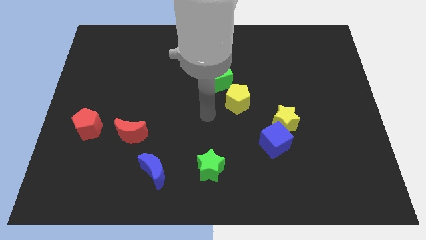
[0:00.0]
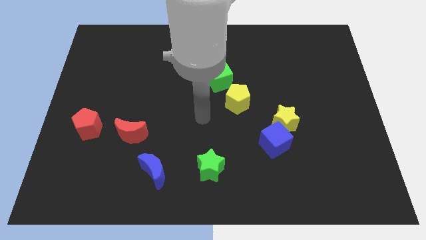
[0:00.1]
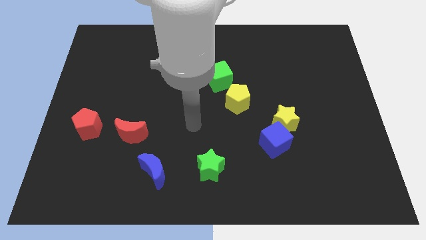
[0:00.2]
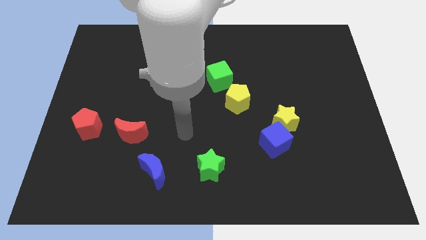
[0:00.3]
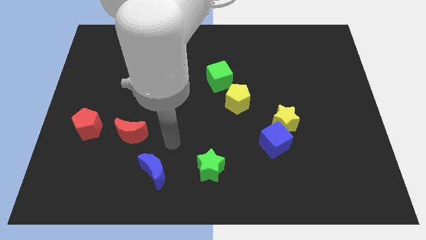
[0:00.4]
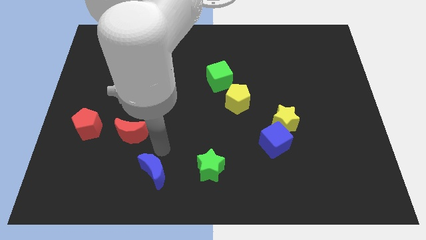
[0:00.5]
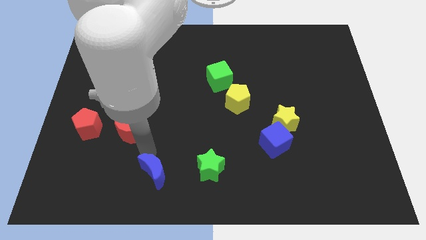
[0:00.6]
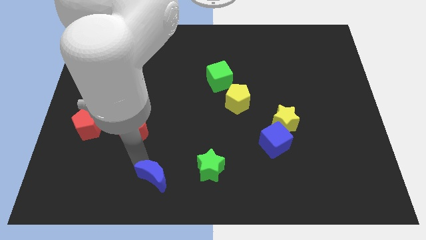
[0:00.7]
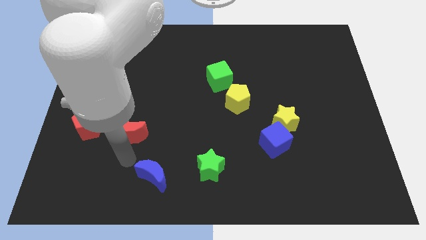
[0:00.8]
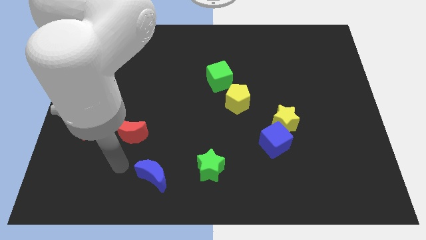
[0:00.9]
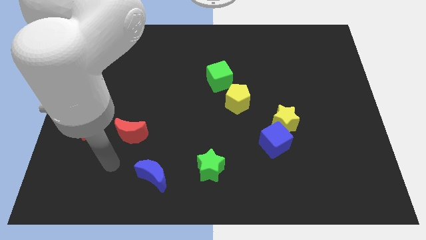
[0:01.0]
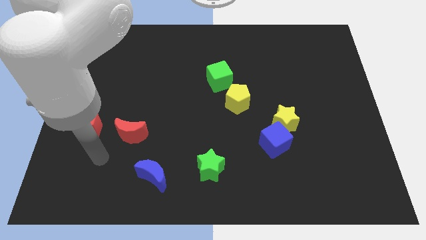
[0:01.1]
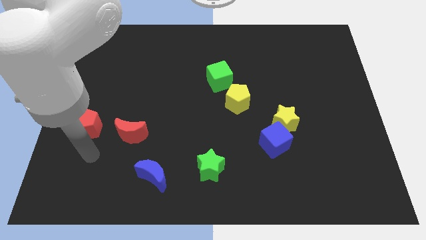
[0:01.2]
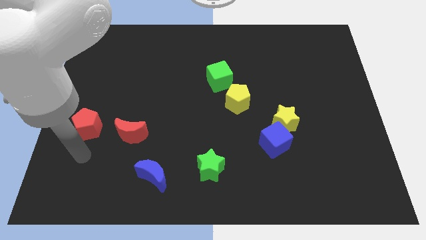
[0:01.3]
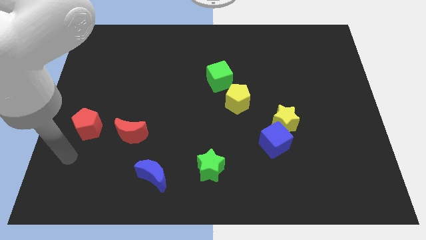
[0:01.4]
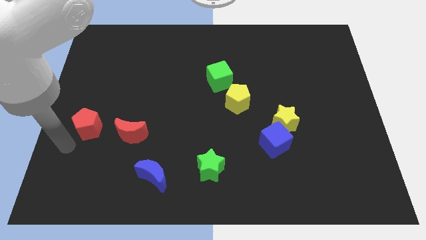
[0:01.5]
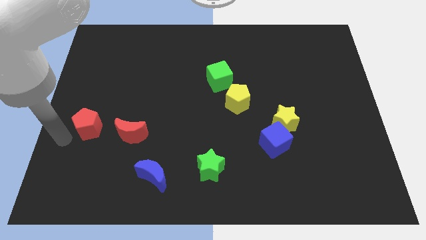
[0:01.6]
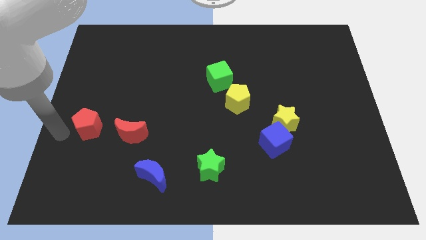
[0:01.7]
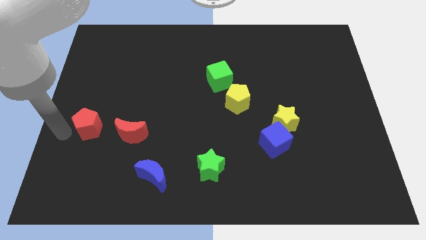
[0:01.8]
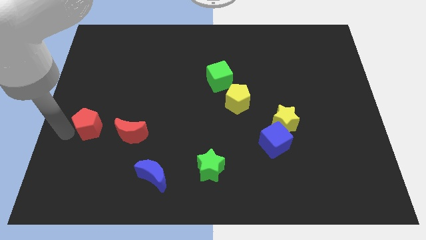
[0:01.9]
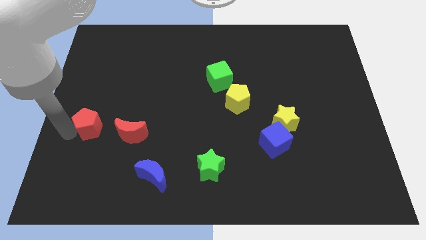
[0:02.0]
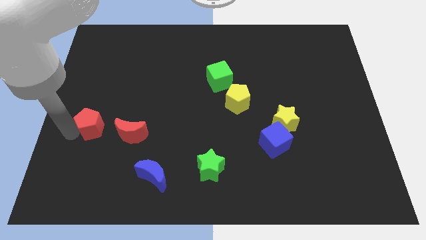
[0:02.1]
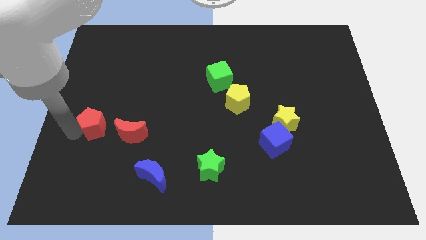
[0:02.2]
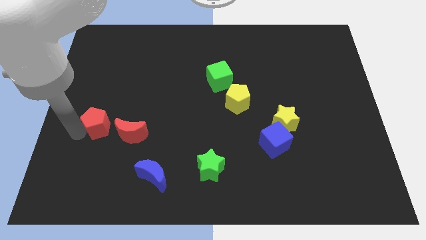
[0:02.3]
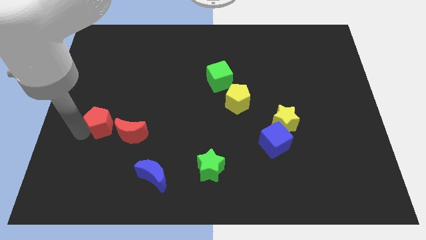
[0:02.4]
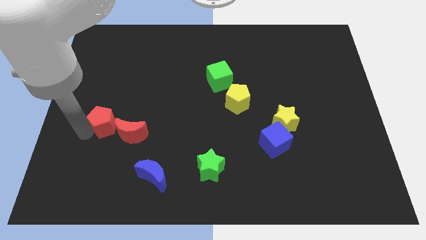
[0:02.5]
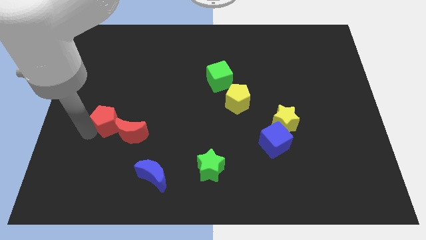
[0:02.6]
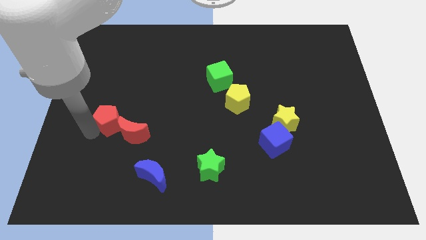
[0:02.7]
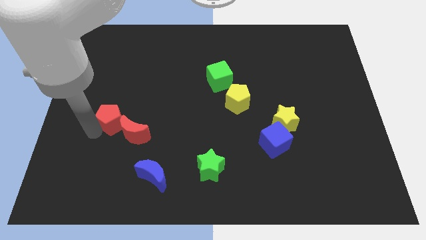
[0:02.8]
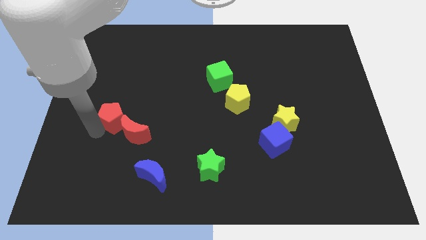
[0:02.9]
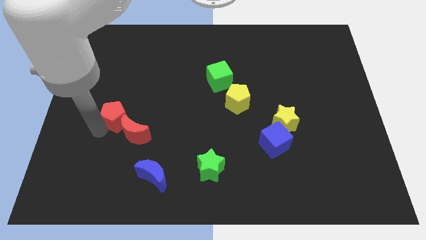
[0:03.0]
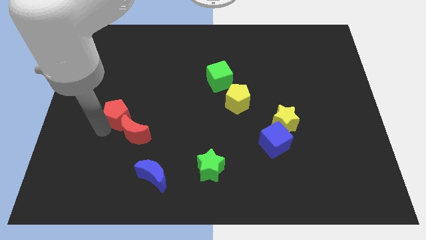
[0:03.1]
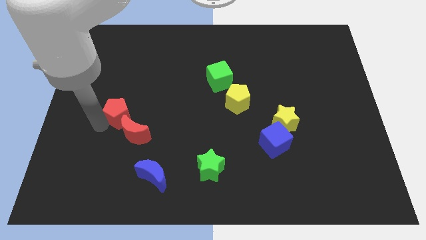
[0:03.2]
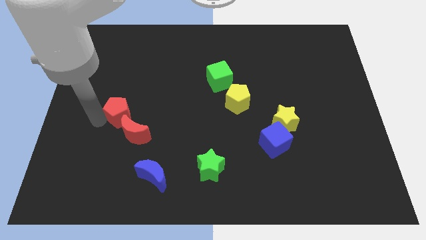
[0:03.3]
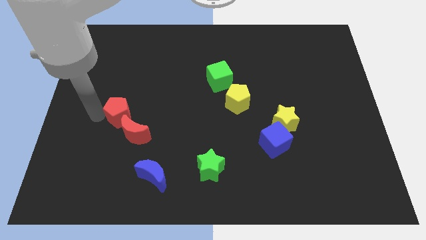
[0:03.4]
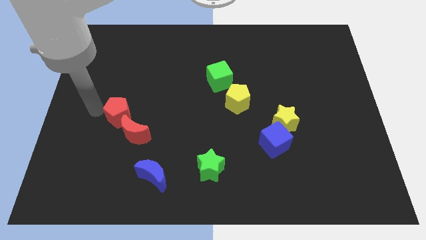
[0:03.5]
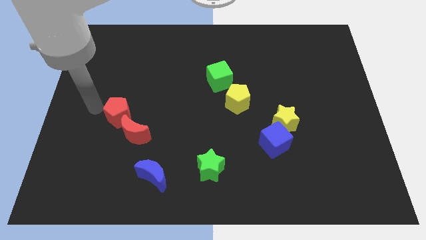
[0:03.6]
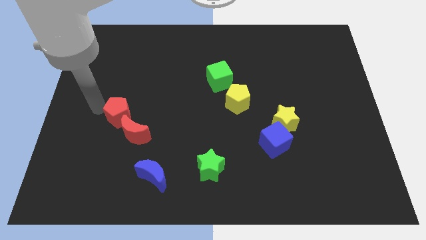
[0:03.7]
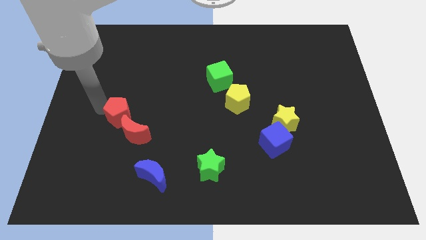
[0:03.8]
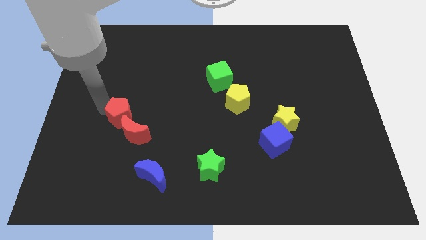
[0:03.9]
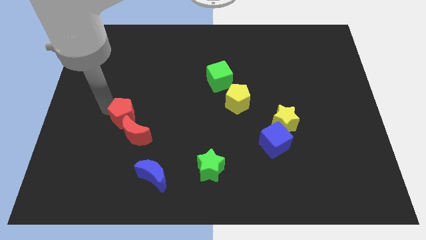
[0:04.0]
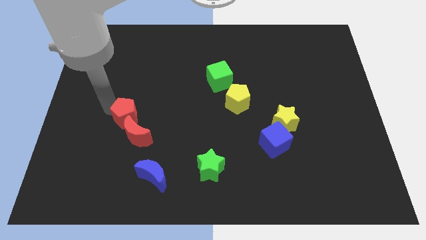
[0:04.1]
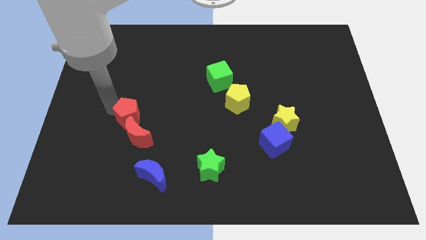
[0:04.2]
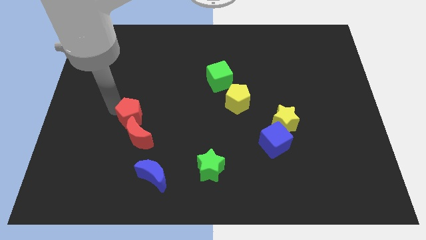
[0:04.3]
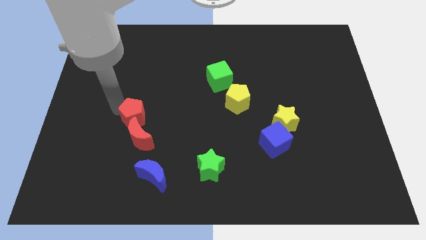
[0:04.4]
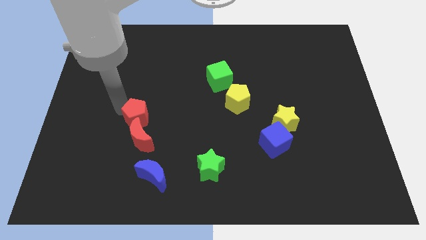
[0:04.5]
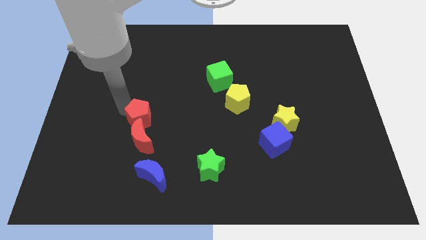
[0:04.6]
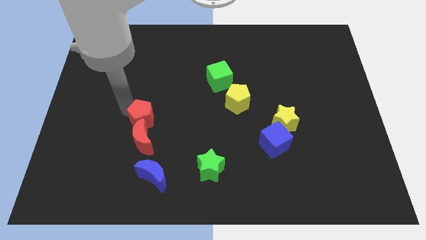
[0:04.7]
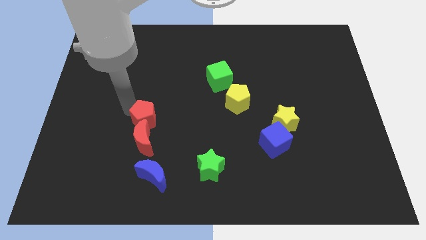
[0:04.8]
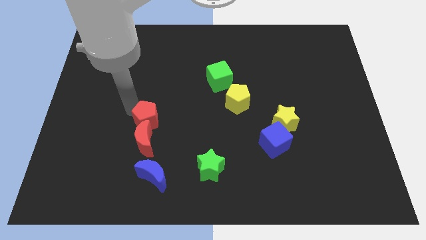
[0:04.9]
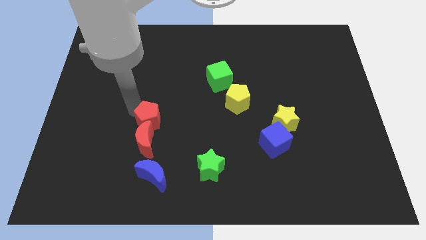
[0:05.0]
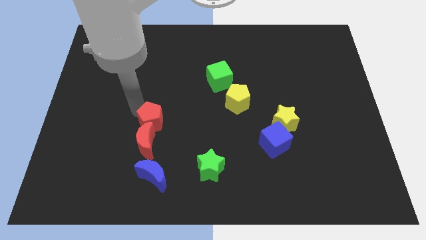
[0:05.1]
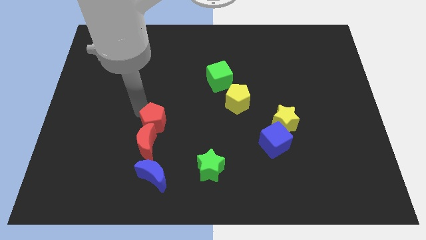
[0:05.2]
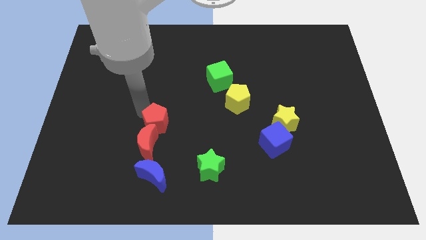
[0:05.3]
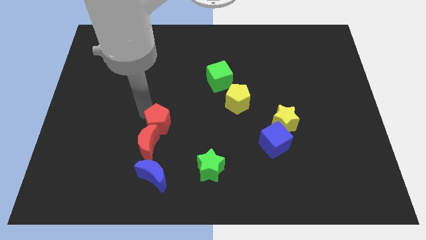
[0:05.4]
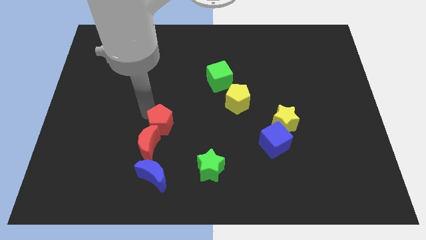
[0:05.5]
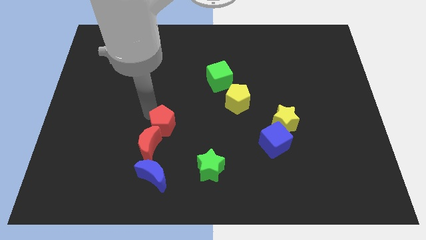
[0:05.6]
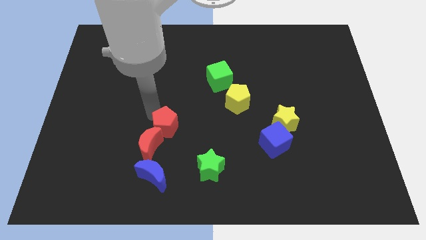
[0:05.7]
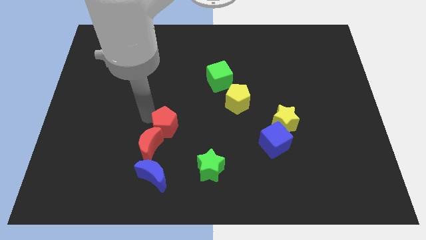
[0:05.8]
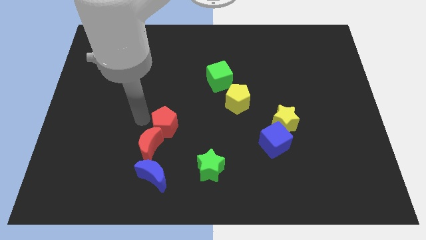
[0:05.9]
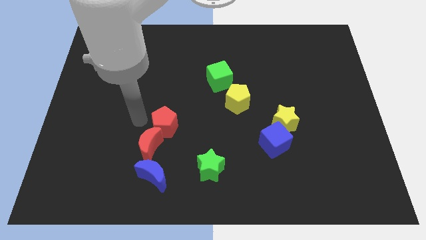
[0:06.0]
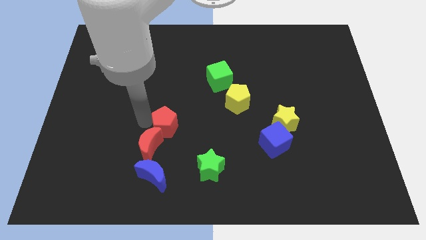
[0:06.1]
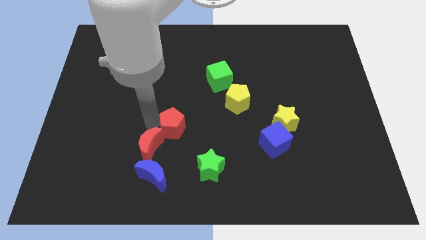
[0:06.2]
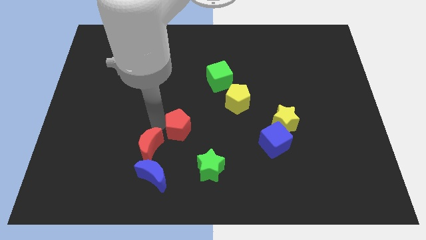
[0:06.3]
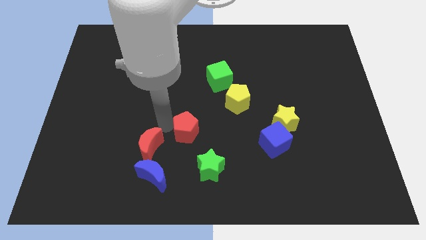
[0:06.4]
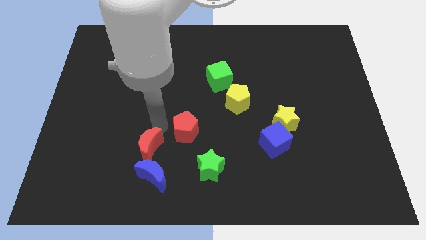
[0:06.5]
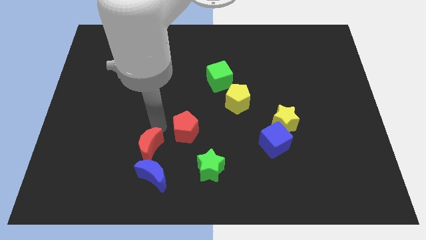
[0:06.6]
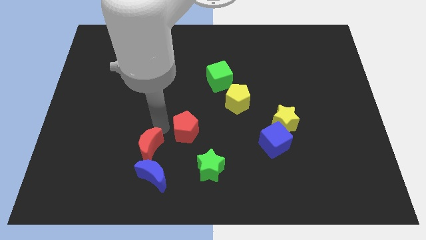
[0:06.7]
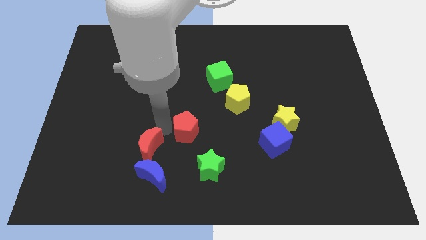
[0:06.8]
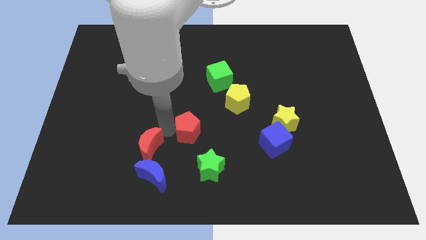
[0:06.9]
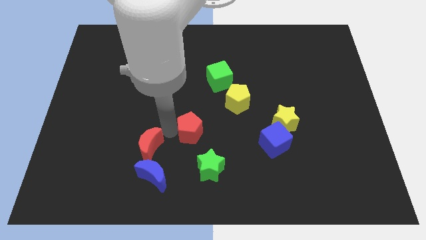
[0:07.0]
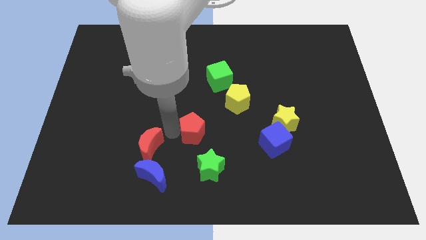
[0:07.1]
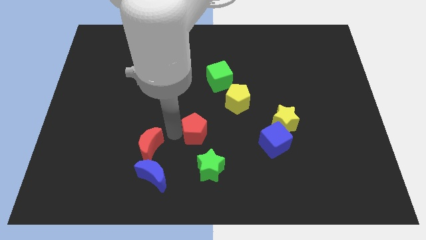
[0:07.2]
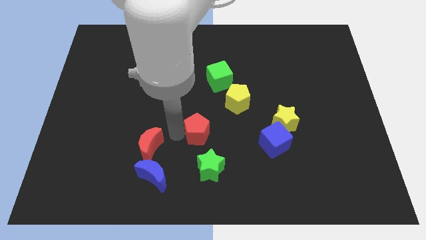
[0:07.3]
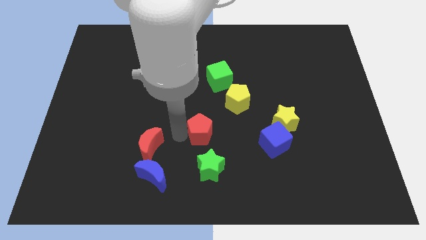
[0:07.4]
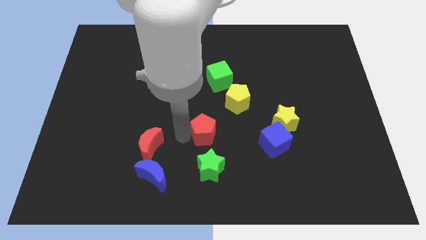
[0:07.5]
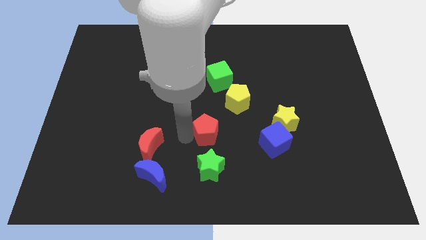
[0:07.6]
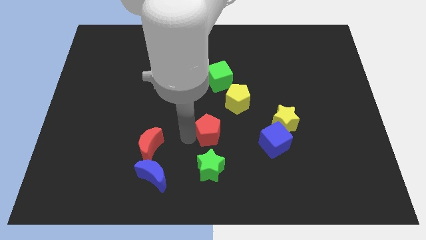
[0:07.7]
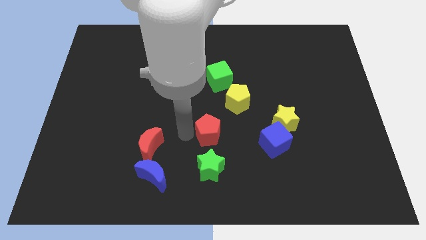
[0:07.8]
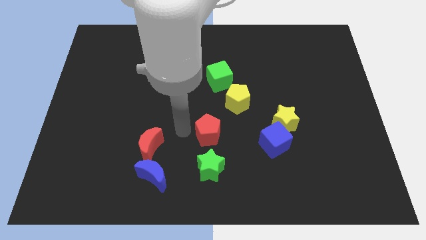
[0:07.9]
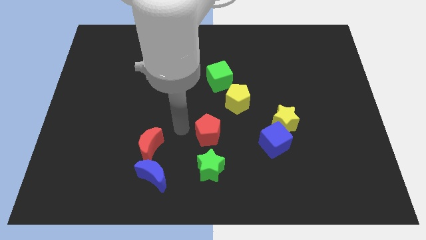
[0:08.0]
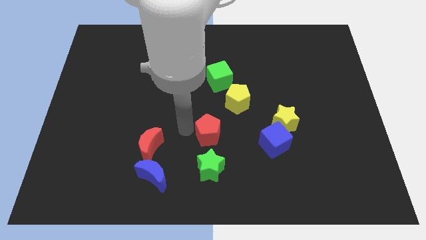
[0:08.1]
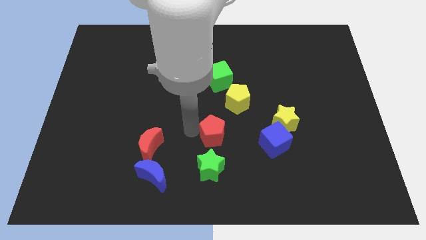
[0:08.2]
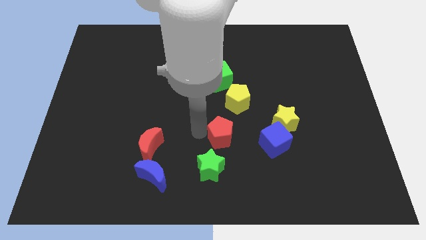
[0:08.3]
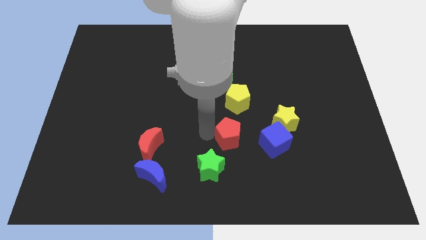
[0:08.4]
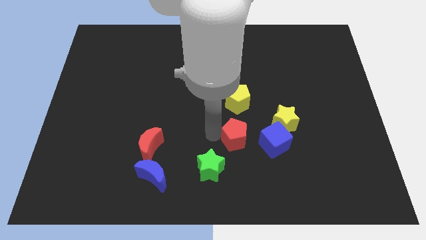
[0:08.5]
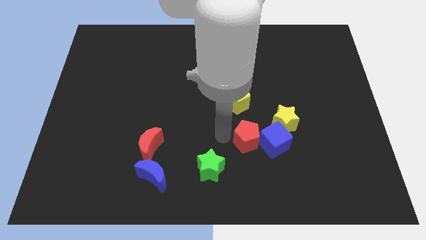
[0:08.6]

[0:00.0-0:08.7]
move the red pentagon close to the blue cube
